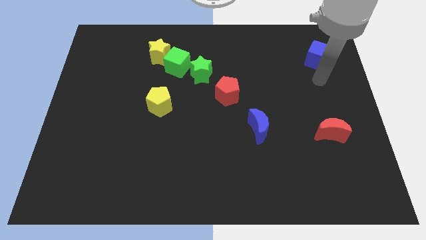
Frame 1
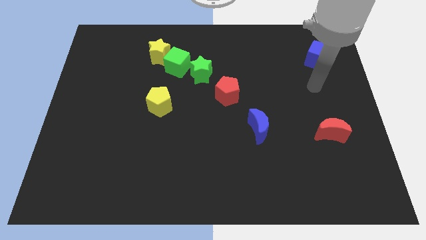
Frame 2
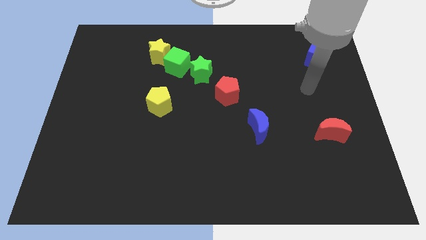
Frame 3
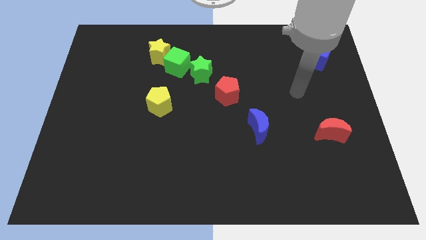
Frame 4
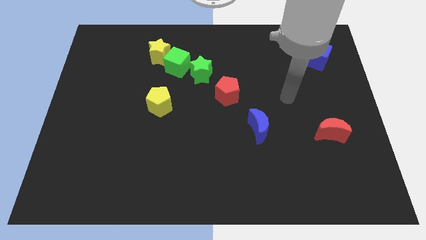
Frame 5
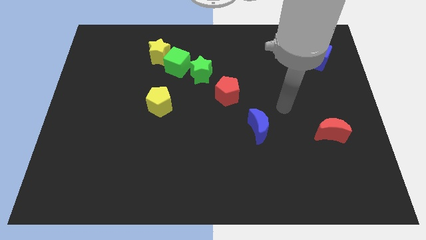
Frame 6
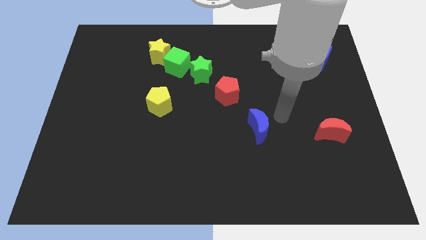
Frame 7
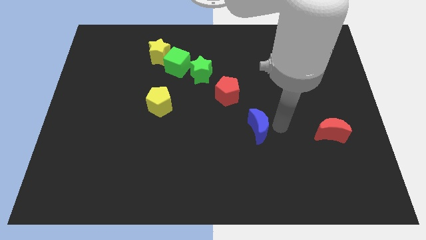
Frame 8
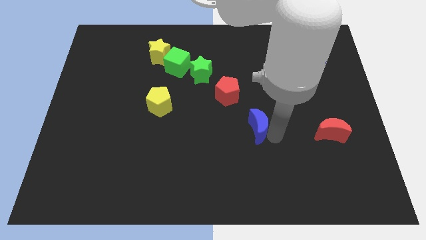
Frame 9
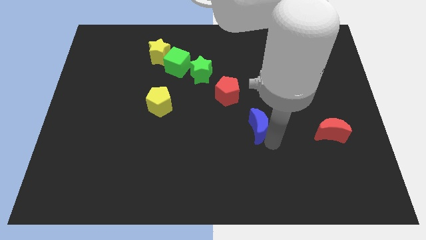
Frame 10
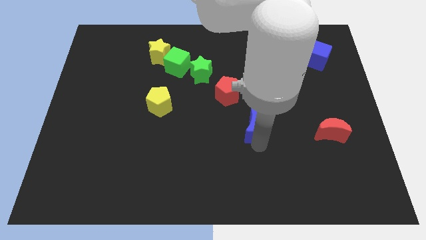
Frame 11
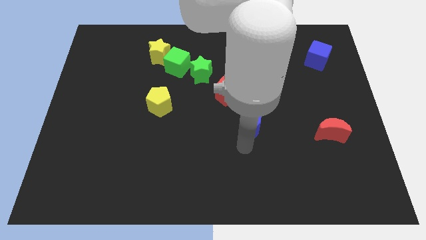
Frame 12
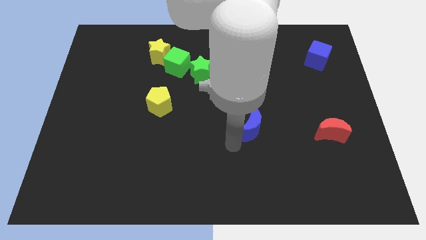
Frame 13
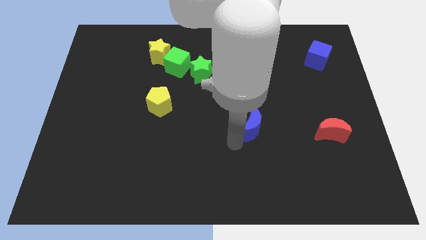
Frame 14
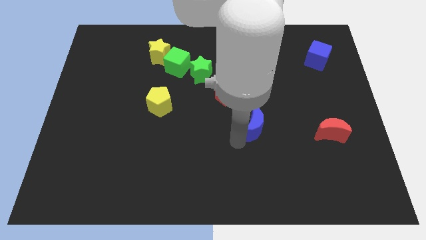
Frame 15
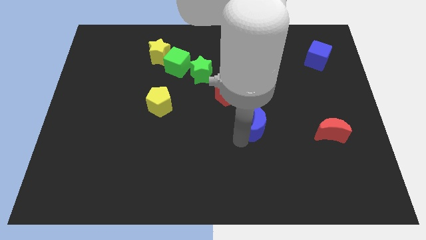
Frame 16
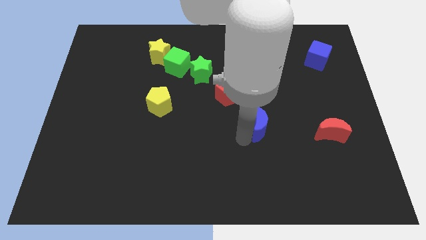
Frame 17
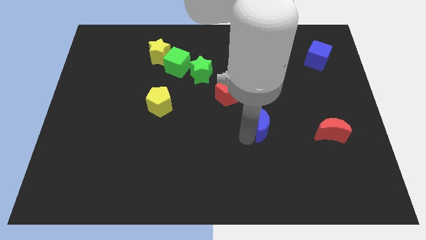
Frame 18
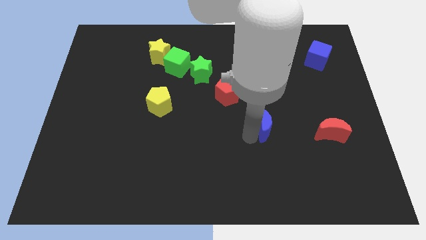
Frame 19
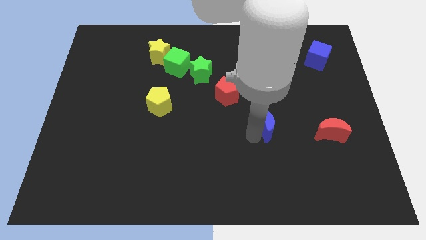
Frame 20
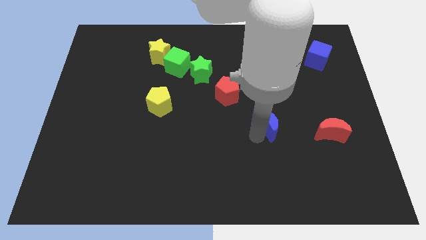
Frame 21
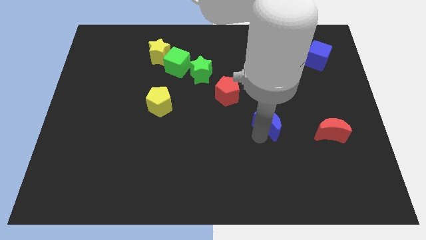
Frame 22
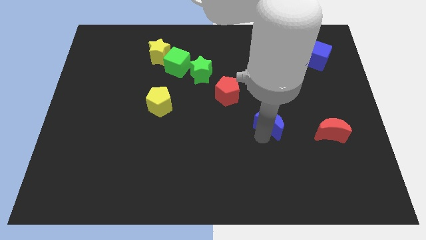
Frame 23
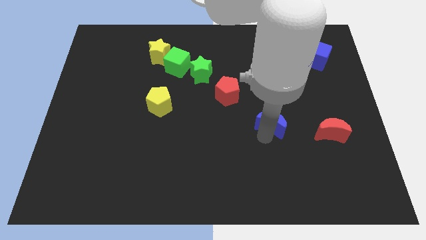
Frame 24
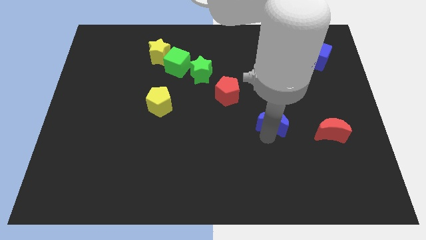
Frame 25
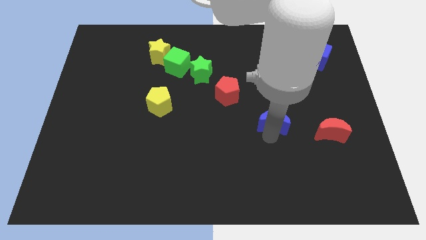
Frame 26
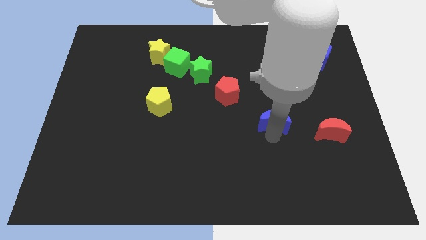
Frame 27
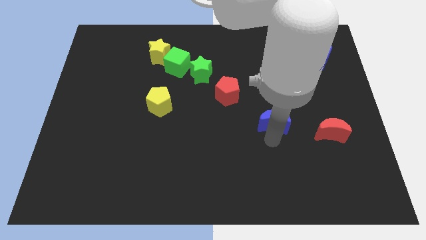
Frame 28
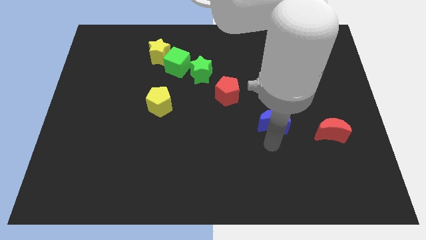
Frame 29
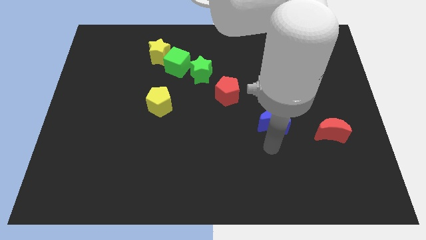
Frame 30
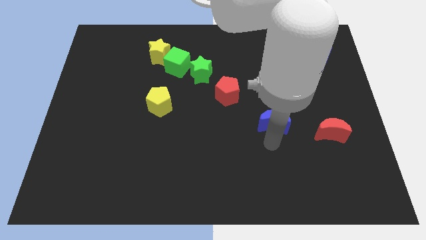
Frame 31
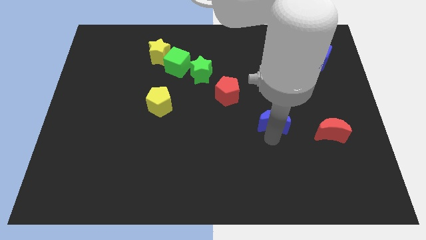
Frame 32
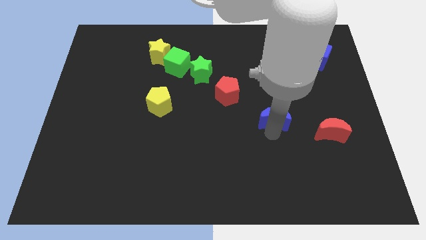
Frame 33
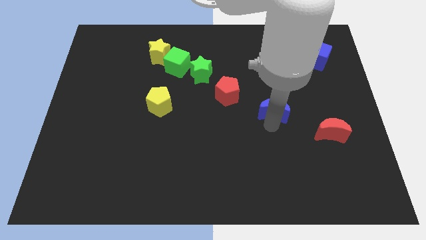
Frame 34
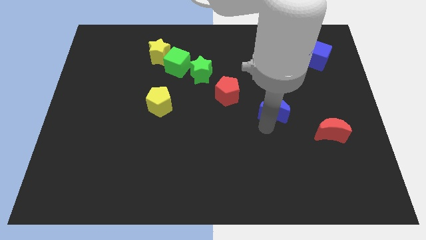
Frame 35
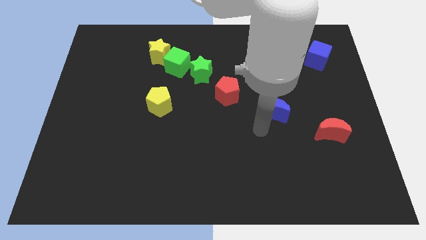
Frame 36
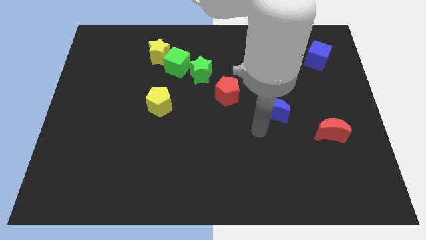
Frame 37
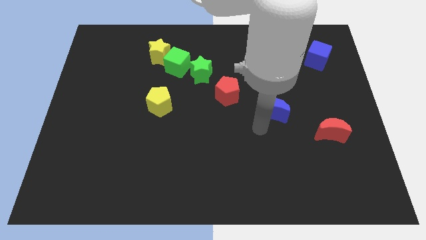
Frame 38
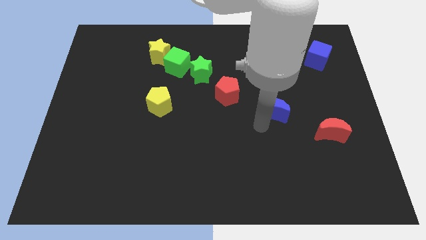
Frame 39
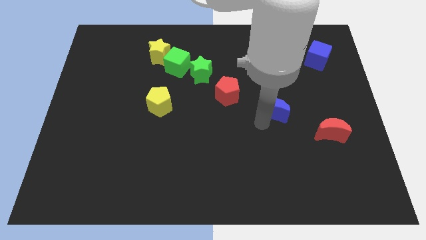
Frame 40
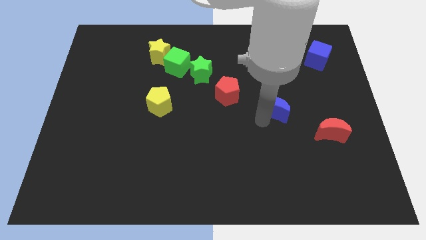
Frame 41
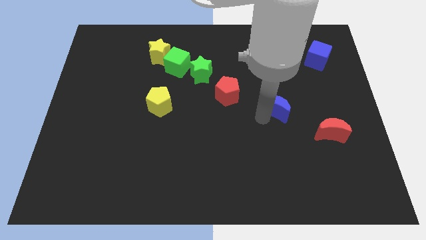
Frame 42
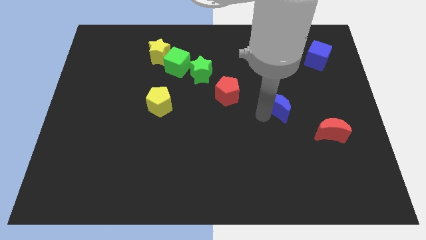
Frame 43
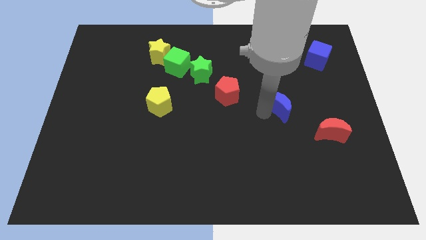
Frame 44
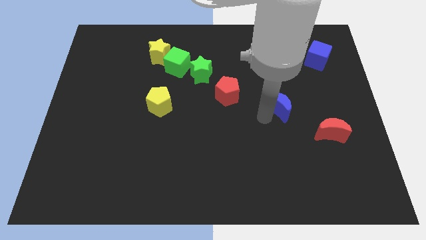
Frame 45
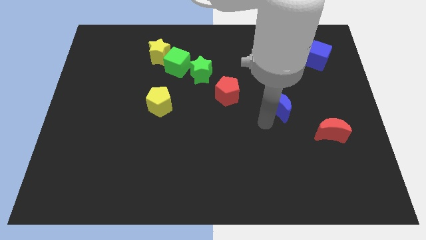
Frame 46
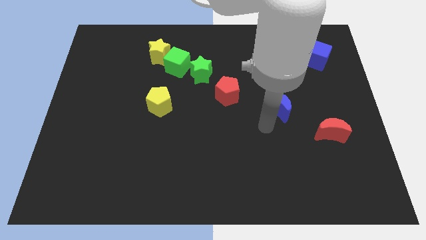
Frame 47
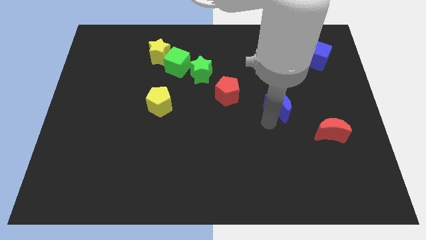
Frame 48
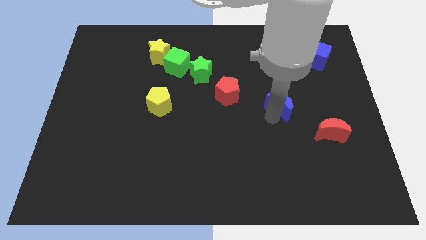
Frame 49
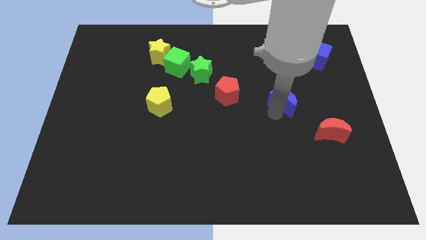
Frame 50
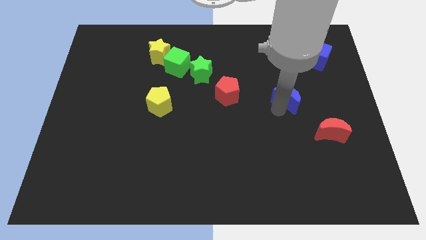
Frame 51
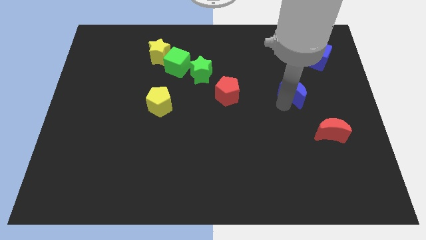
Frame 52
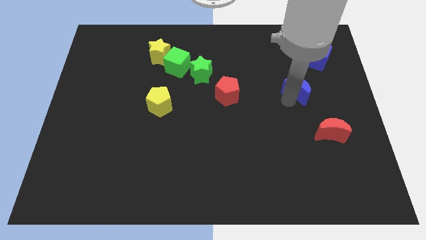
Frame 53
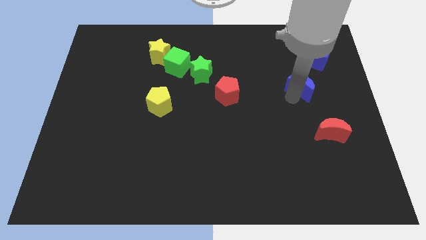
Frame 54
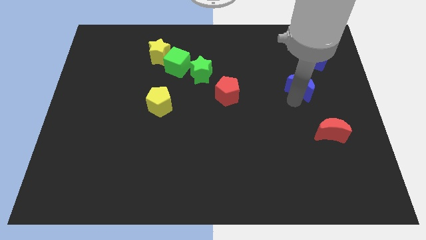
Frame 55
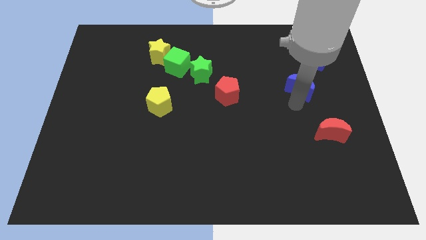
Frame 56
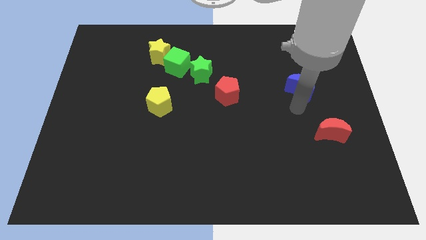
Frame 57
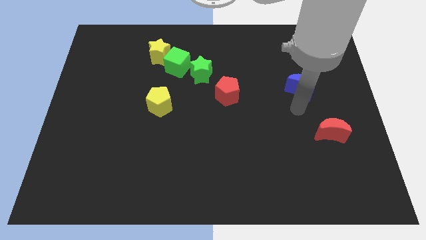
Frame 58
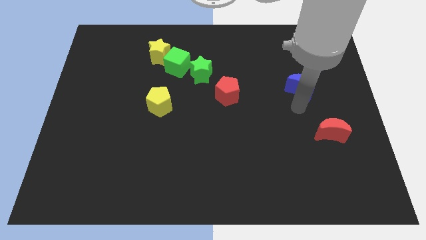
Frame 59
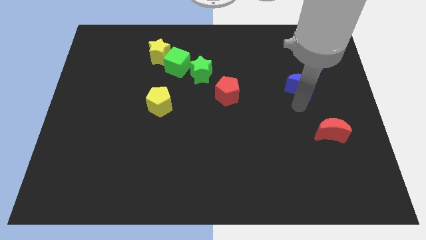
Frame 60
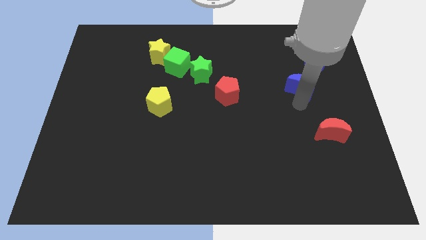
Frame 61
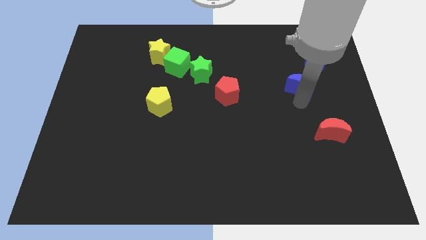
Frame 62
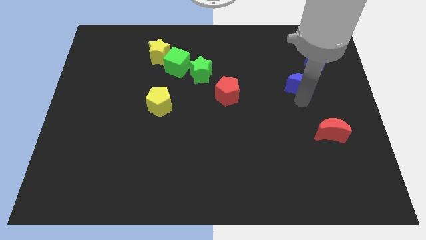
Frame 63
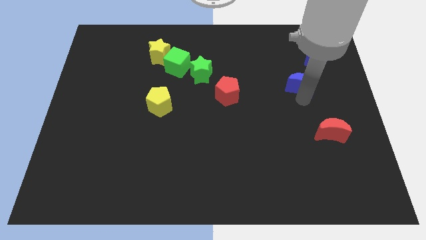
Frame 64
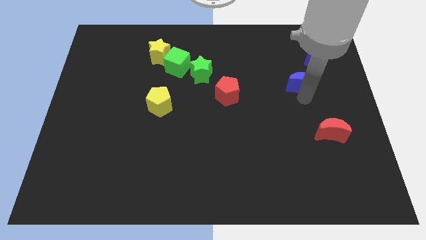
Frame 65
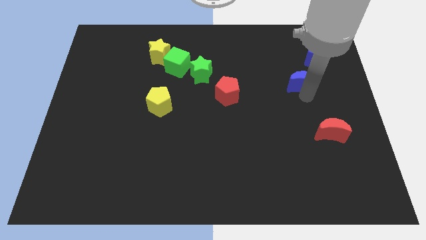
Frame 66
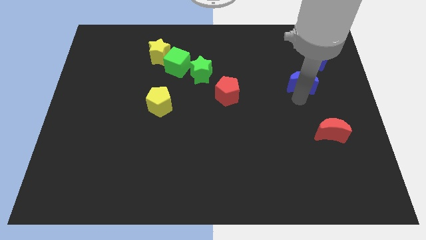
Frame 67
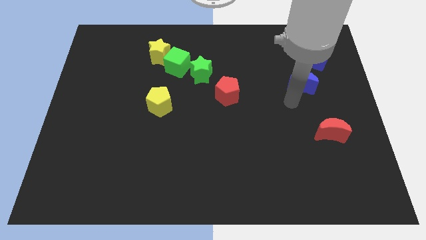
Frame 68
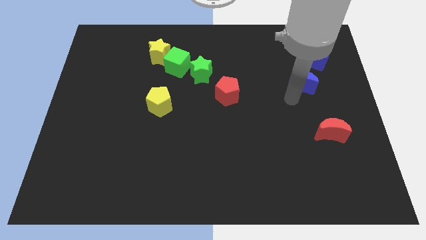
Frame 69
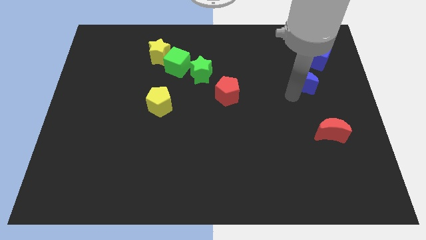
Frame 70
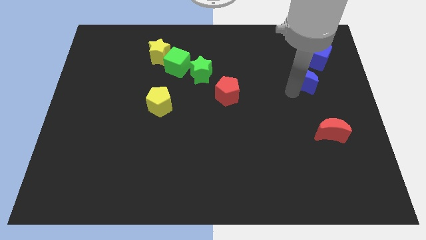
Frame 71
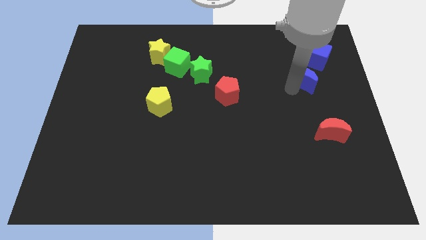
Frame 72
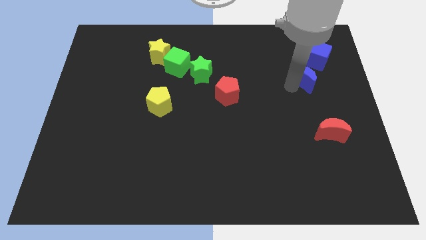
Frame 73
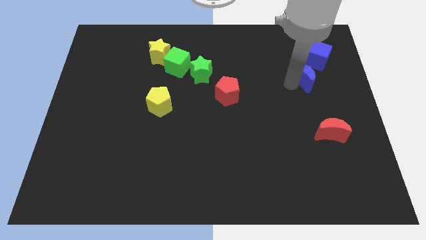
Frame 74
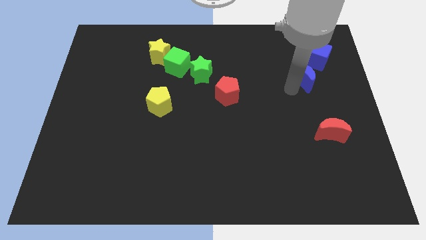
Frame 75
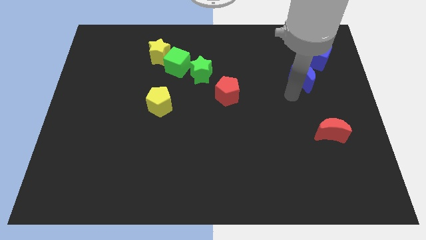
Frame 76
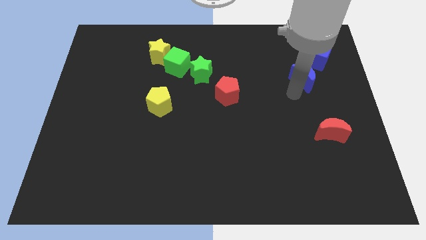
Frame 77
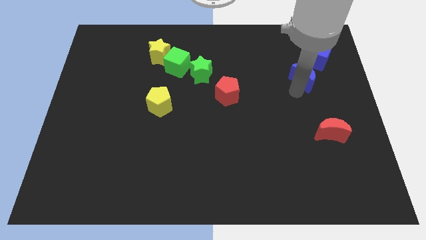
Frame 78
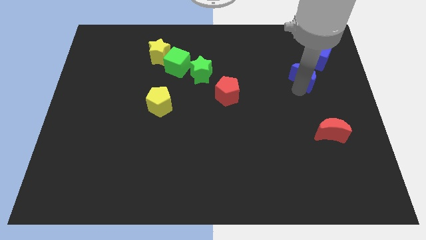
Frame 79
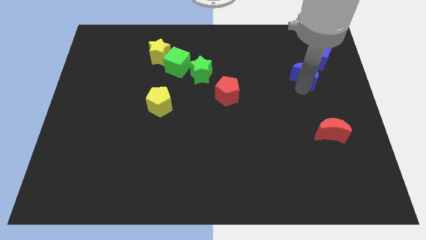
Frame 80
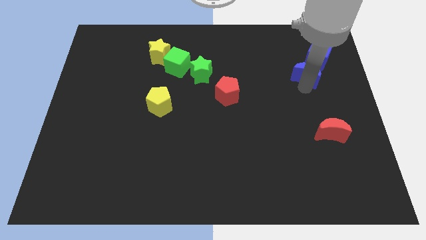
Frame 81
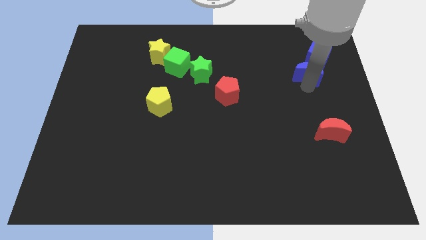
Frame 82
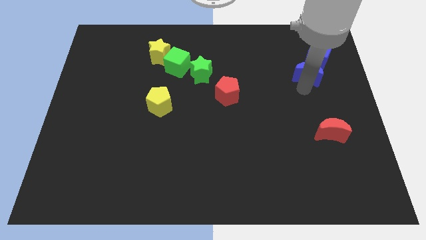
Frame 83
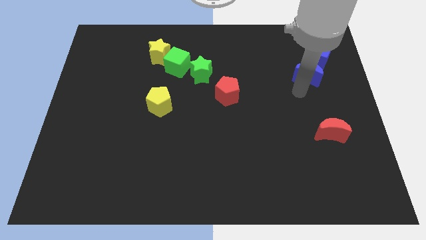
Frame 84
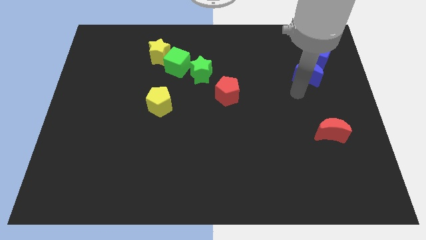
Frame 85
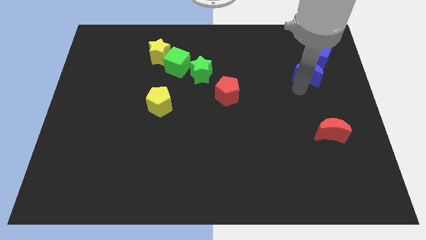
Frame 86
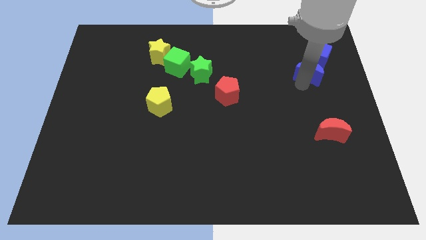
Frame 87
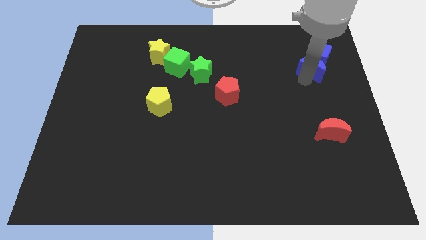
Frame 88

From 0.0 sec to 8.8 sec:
slide the blue moon towards the blue cube
